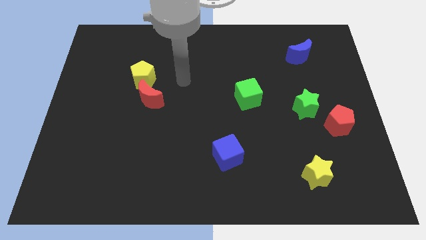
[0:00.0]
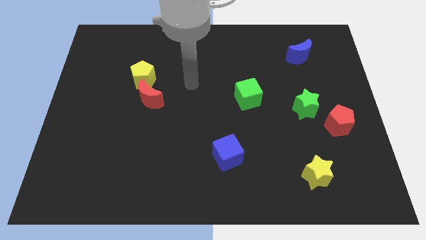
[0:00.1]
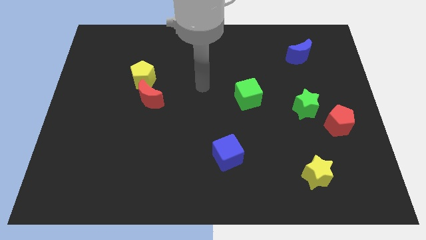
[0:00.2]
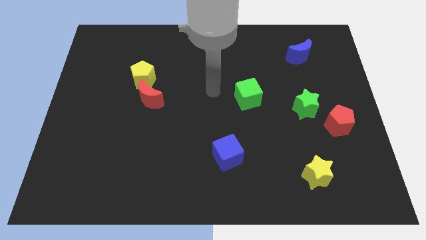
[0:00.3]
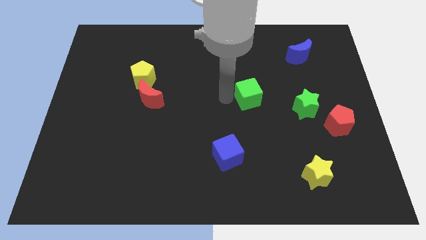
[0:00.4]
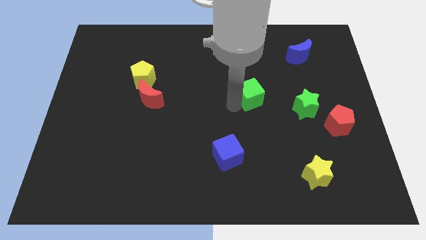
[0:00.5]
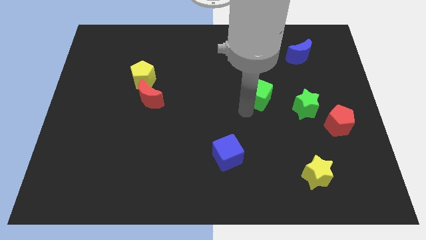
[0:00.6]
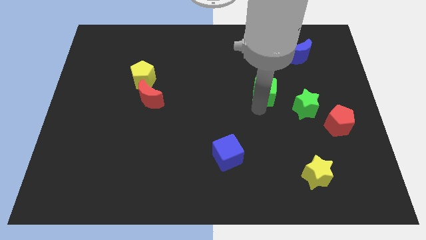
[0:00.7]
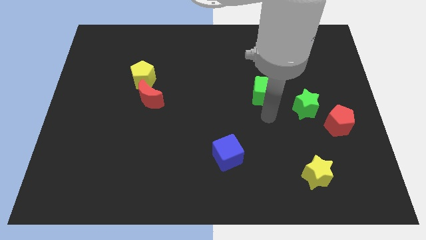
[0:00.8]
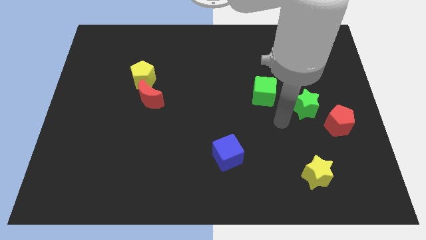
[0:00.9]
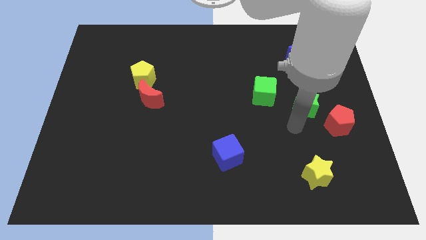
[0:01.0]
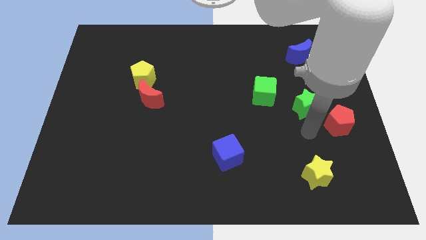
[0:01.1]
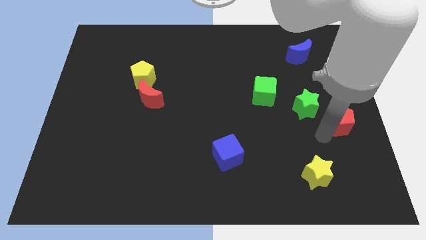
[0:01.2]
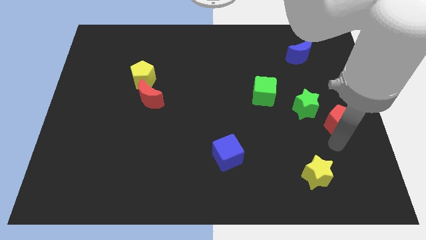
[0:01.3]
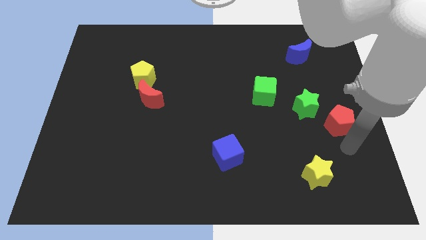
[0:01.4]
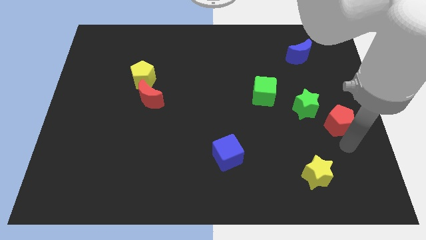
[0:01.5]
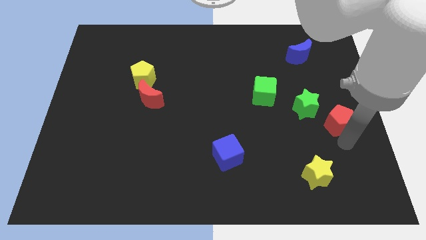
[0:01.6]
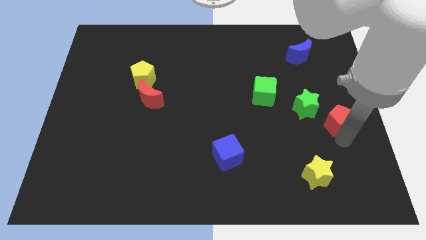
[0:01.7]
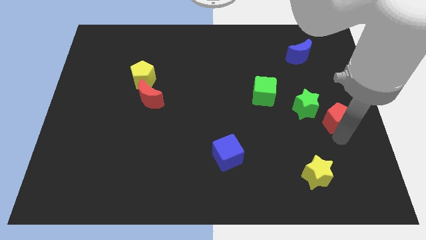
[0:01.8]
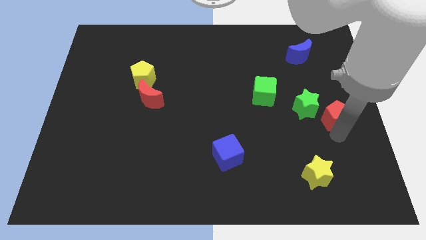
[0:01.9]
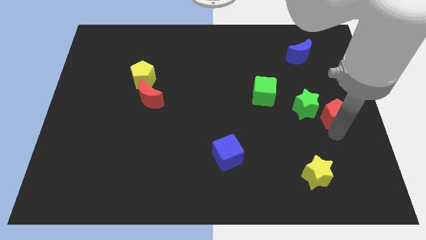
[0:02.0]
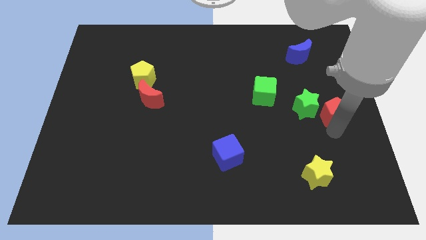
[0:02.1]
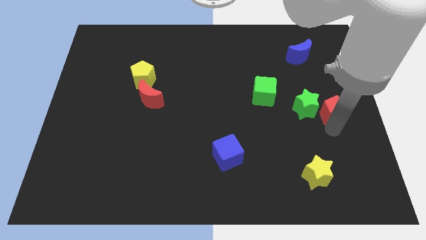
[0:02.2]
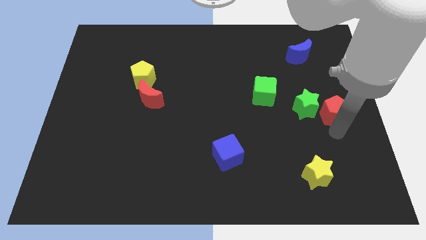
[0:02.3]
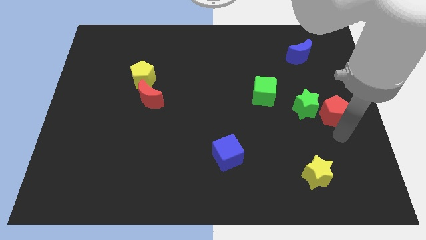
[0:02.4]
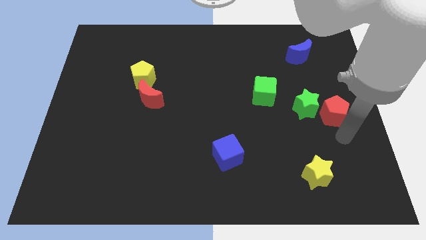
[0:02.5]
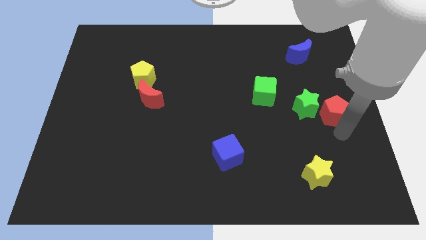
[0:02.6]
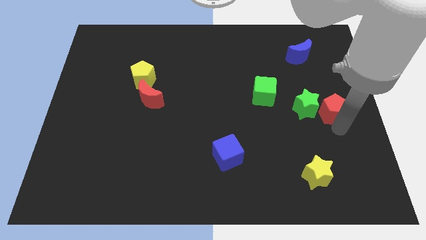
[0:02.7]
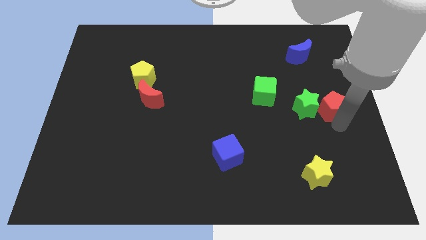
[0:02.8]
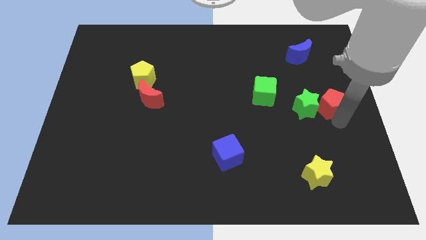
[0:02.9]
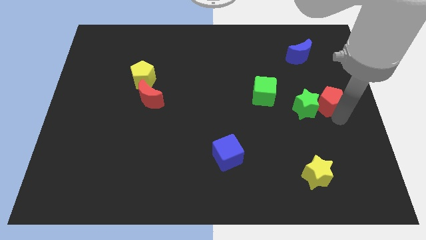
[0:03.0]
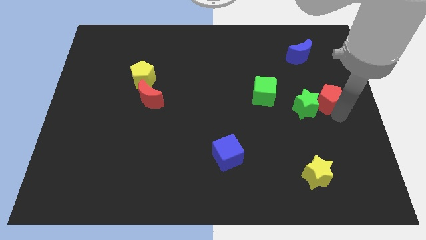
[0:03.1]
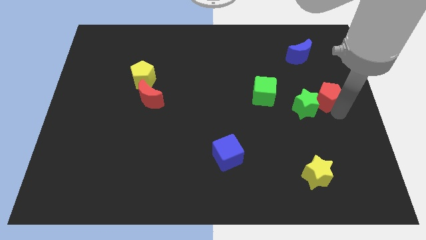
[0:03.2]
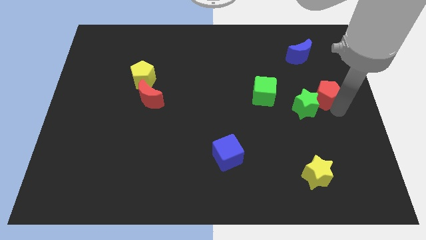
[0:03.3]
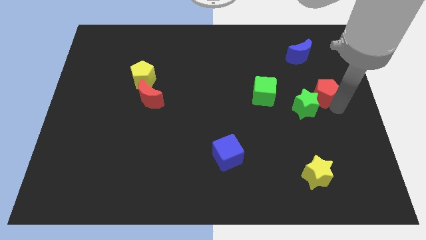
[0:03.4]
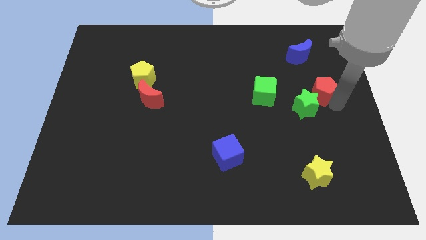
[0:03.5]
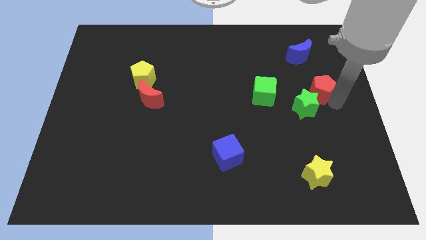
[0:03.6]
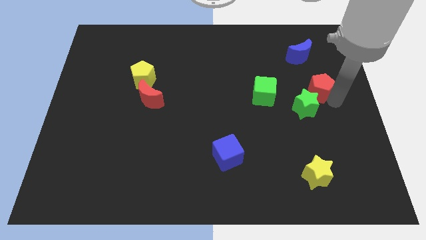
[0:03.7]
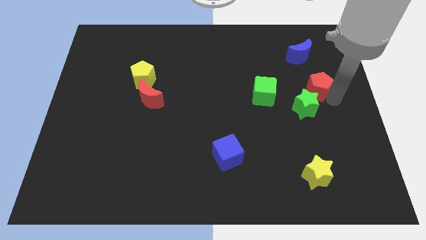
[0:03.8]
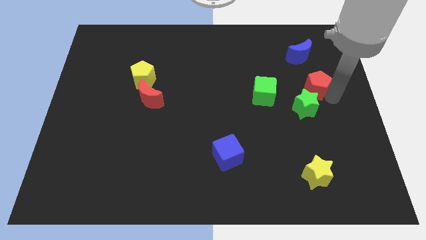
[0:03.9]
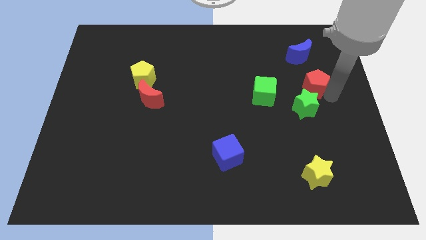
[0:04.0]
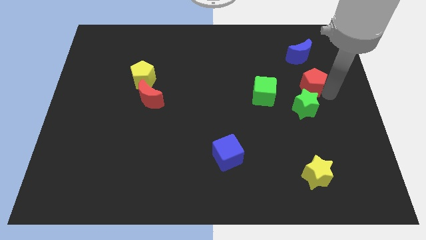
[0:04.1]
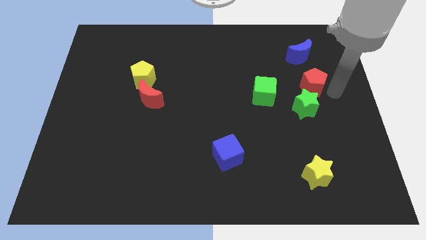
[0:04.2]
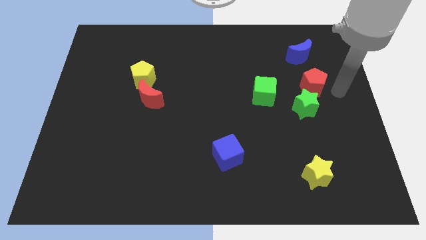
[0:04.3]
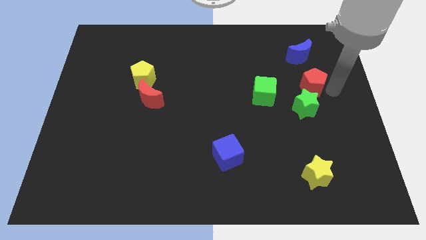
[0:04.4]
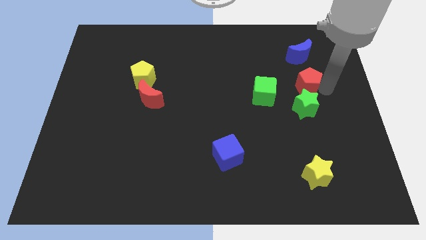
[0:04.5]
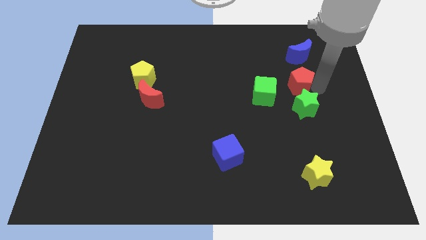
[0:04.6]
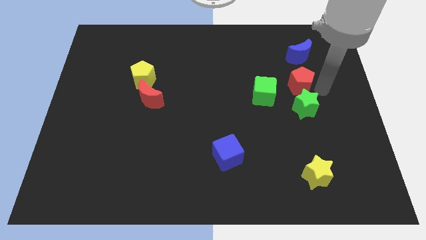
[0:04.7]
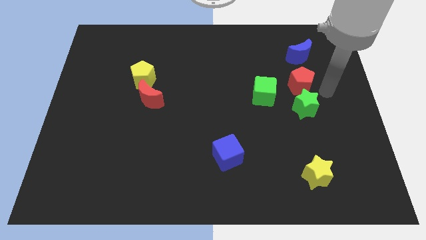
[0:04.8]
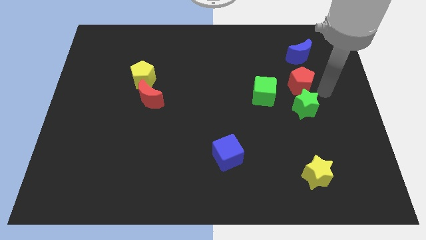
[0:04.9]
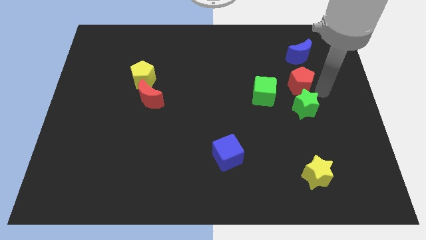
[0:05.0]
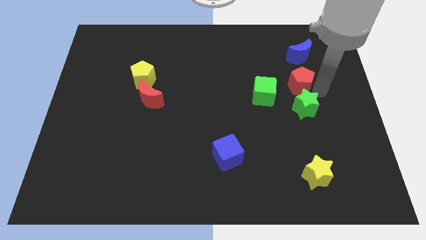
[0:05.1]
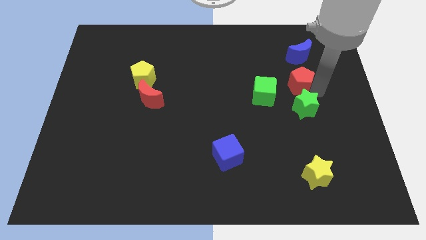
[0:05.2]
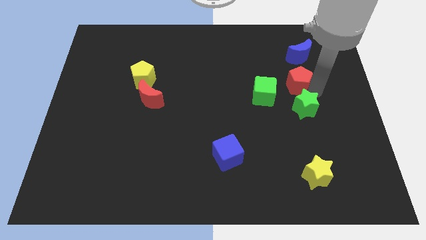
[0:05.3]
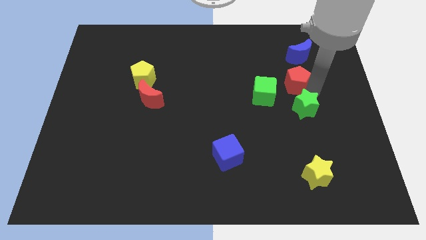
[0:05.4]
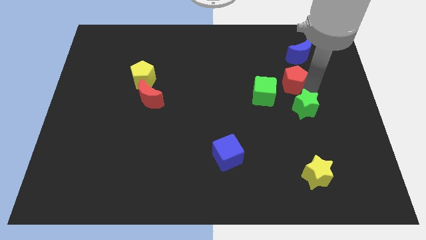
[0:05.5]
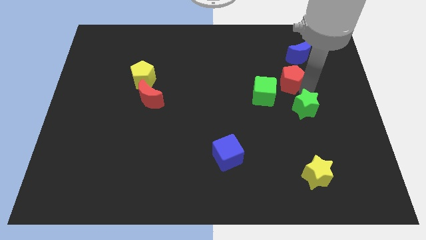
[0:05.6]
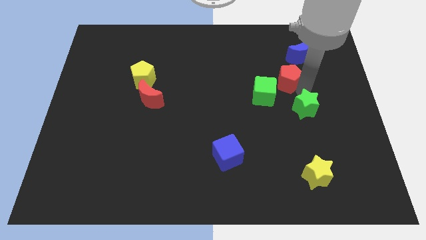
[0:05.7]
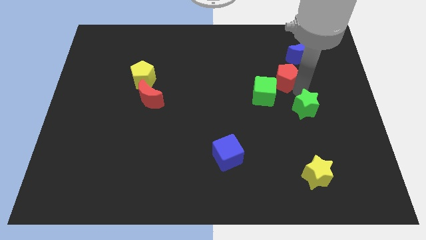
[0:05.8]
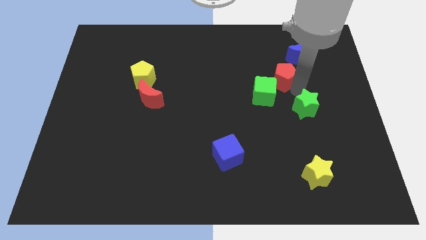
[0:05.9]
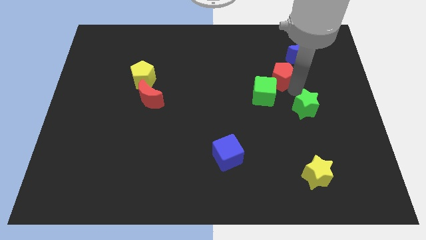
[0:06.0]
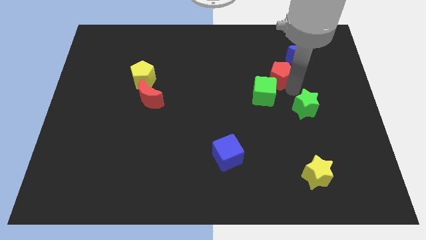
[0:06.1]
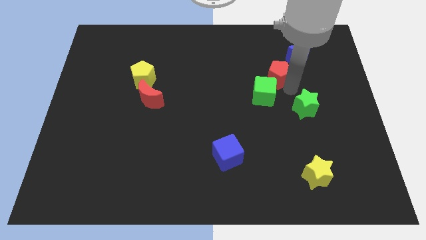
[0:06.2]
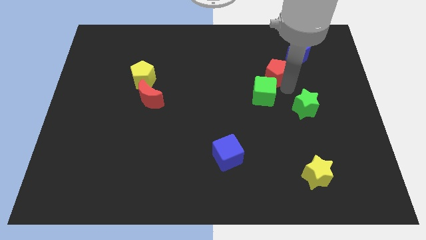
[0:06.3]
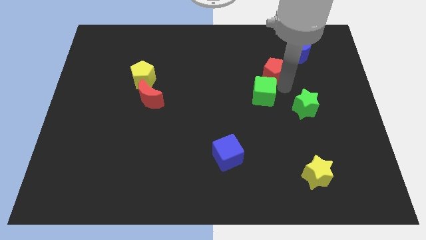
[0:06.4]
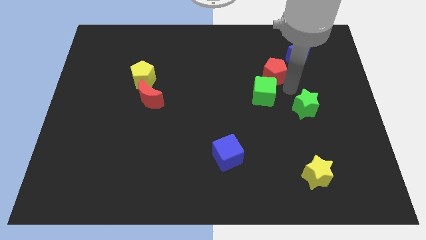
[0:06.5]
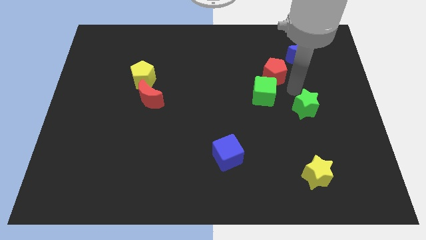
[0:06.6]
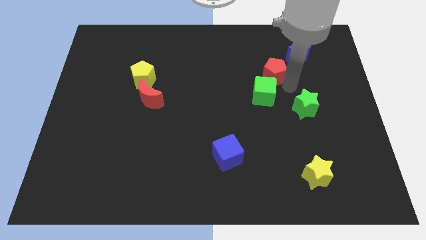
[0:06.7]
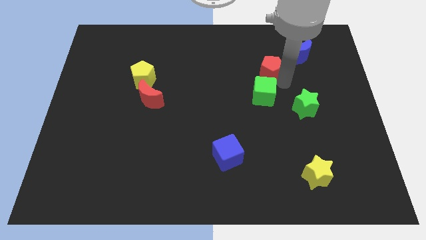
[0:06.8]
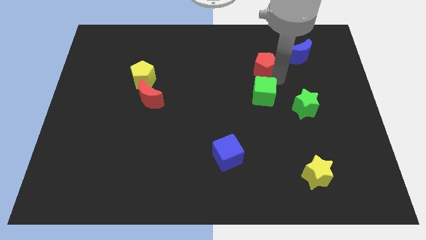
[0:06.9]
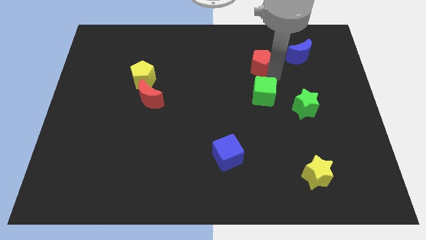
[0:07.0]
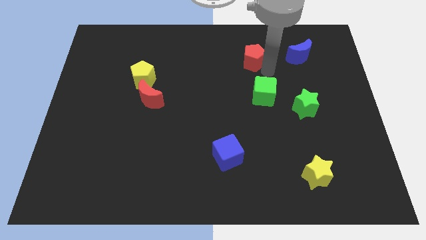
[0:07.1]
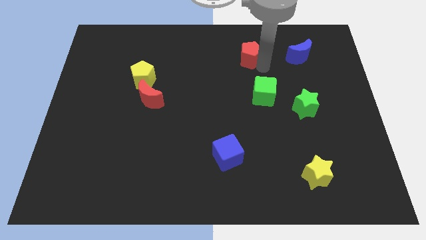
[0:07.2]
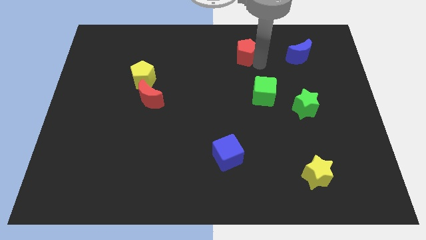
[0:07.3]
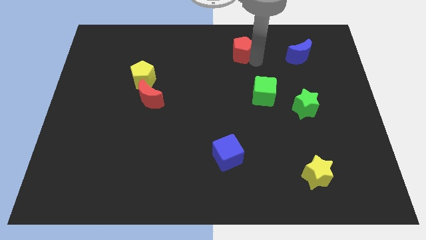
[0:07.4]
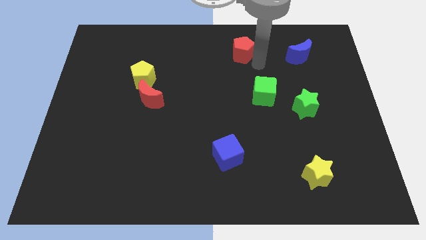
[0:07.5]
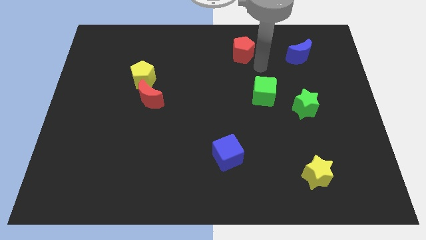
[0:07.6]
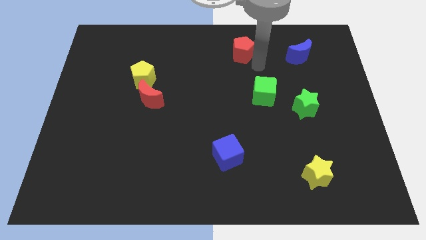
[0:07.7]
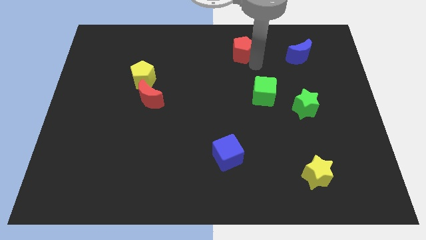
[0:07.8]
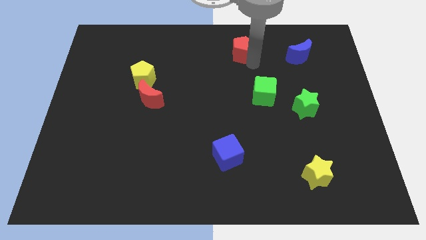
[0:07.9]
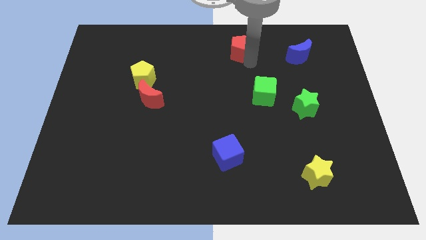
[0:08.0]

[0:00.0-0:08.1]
put the red pentagon to the top side
